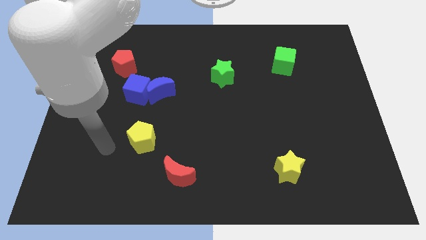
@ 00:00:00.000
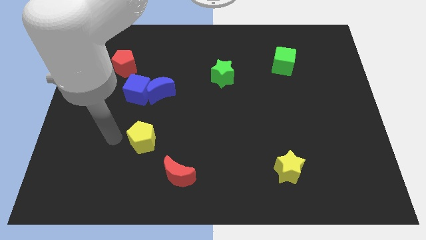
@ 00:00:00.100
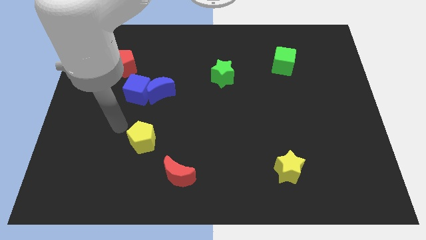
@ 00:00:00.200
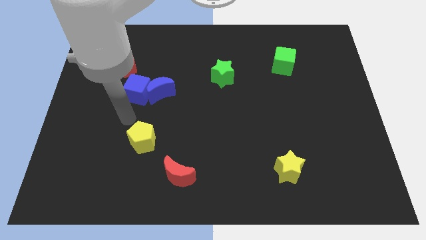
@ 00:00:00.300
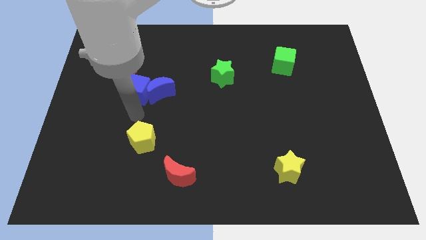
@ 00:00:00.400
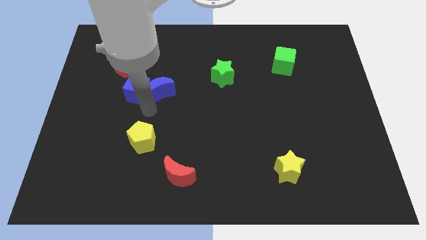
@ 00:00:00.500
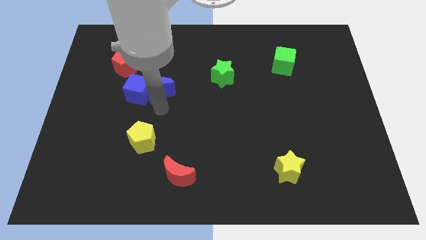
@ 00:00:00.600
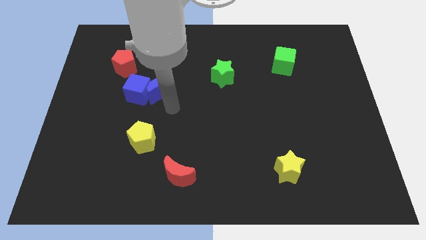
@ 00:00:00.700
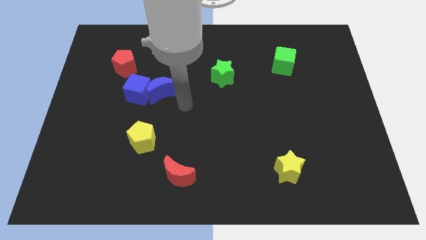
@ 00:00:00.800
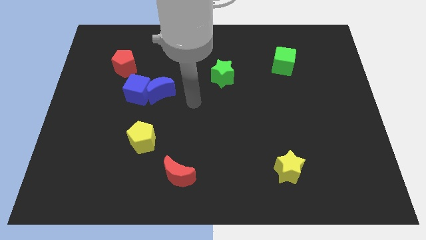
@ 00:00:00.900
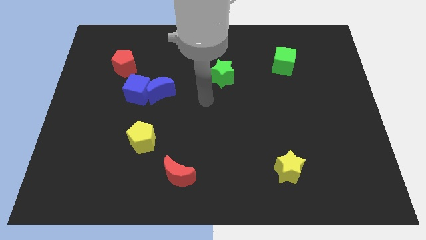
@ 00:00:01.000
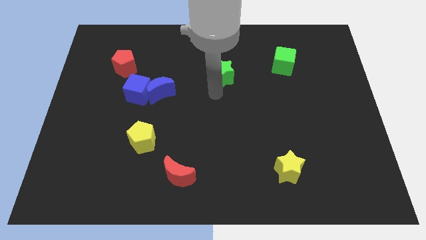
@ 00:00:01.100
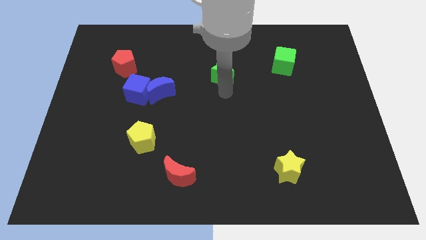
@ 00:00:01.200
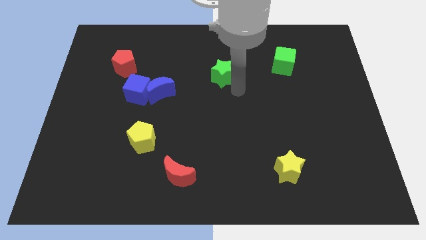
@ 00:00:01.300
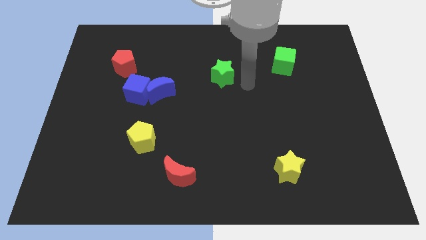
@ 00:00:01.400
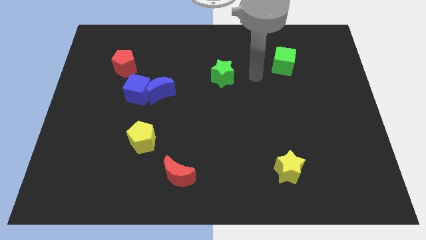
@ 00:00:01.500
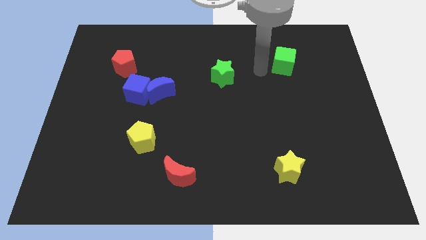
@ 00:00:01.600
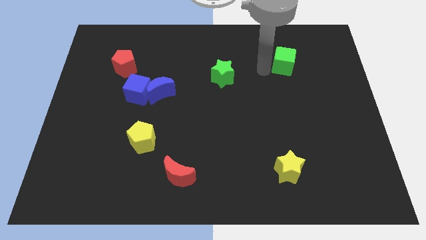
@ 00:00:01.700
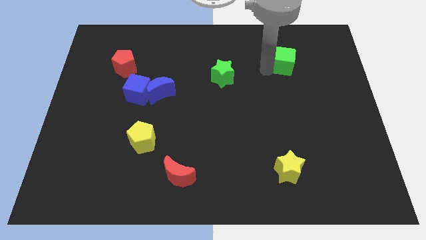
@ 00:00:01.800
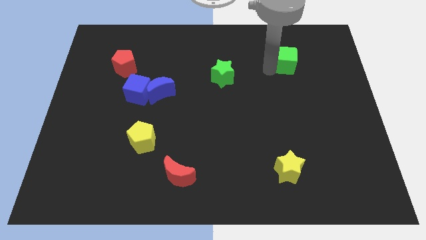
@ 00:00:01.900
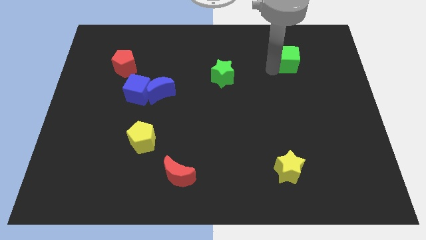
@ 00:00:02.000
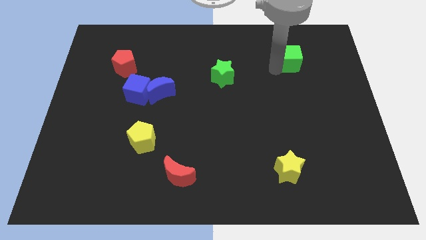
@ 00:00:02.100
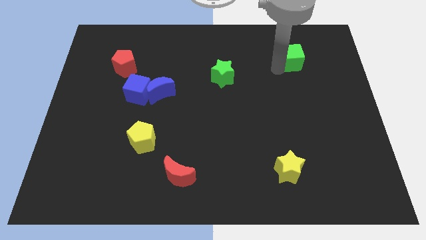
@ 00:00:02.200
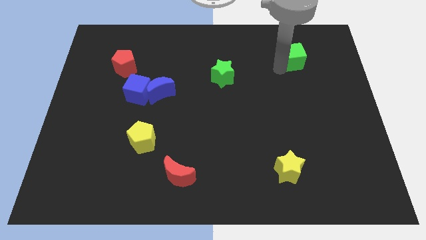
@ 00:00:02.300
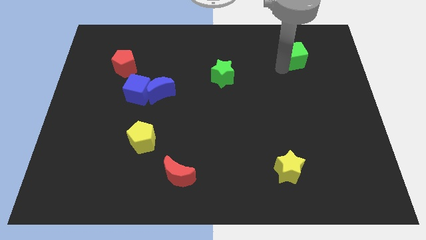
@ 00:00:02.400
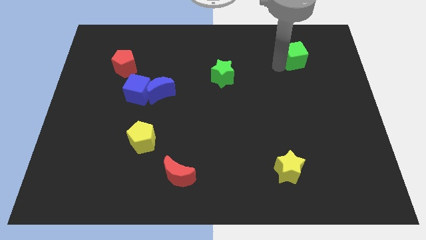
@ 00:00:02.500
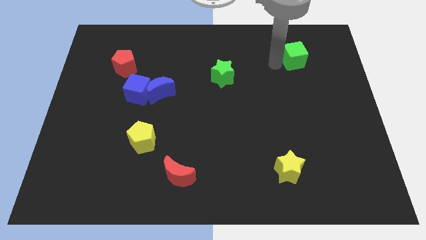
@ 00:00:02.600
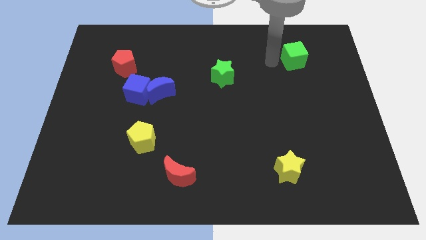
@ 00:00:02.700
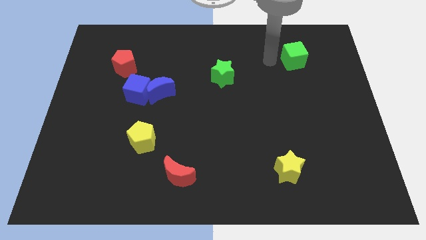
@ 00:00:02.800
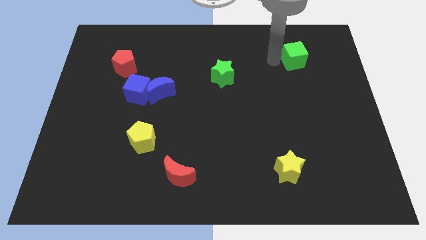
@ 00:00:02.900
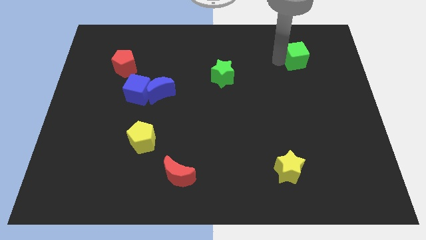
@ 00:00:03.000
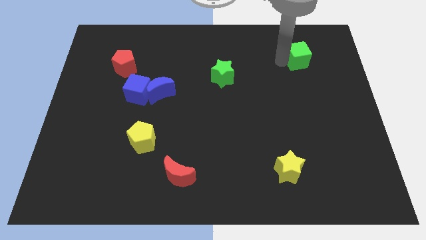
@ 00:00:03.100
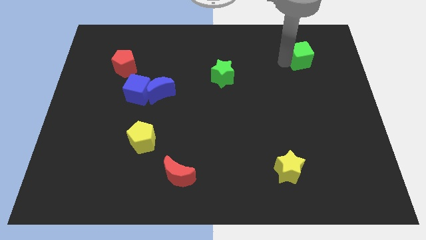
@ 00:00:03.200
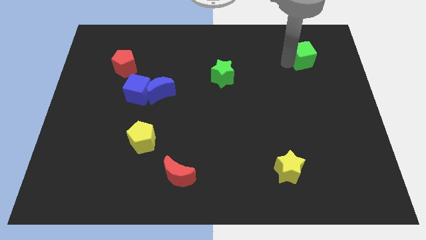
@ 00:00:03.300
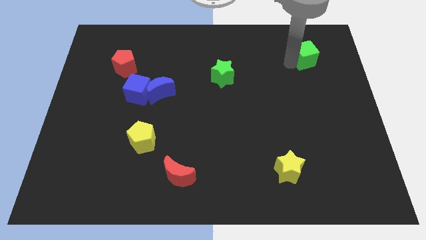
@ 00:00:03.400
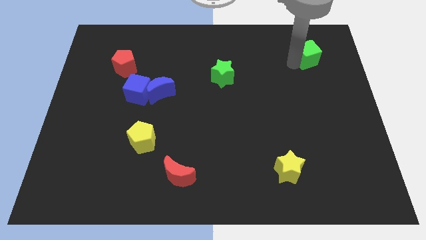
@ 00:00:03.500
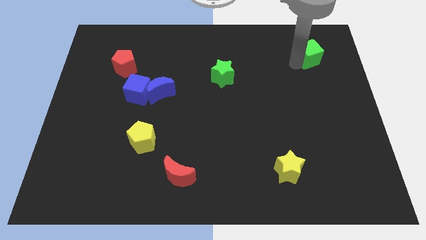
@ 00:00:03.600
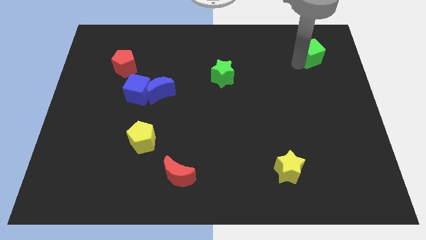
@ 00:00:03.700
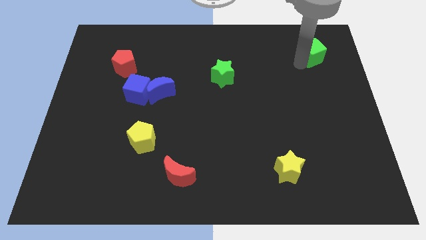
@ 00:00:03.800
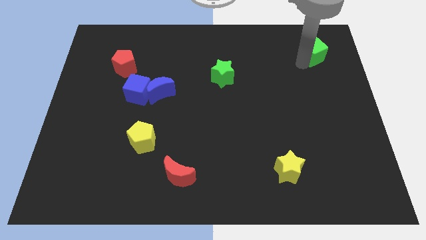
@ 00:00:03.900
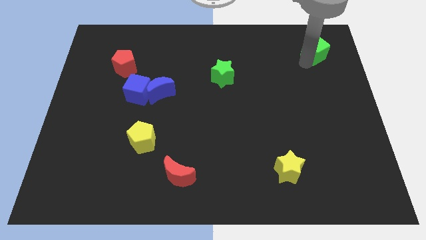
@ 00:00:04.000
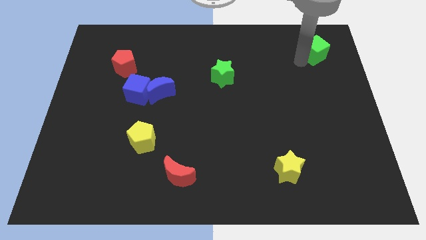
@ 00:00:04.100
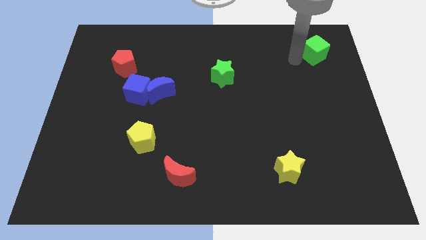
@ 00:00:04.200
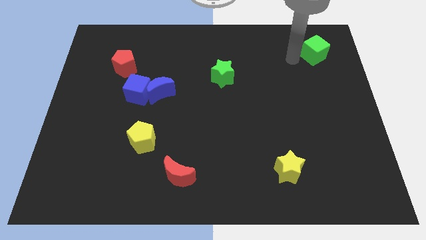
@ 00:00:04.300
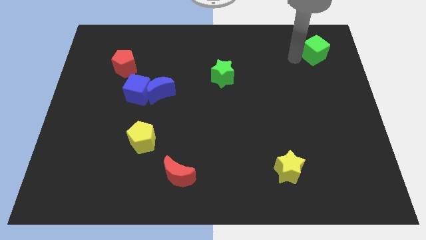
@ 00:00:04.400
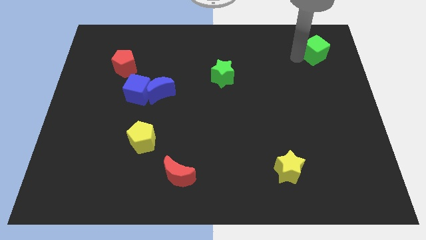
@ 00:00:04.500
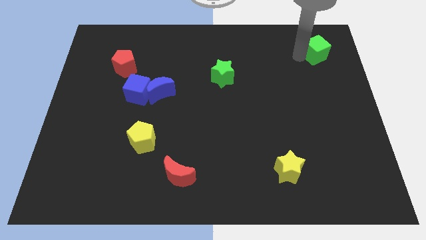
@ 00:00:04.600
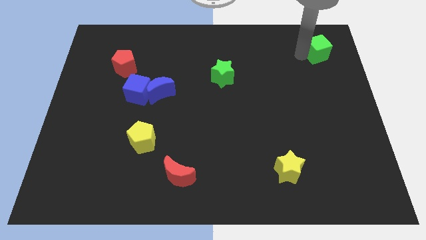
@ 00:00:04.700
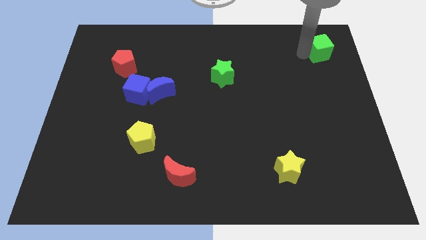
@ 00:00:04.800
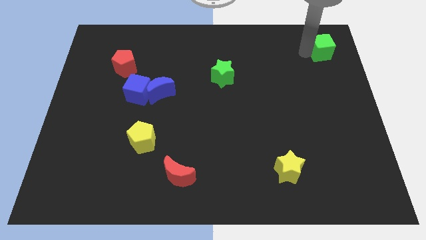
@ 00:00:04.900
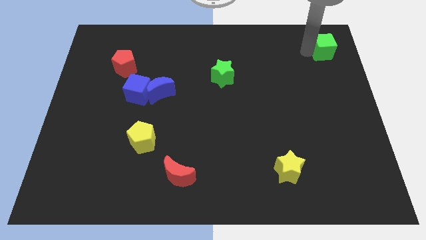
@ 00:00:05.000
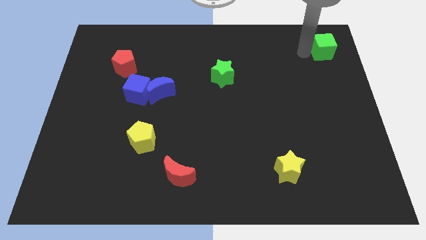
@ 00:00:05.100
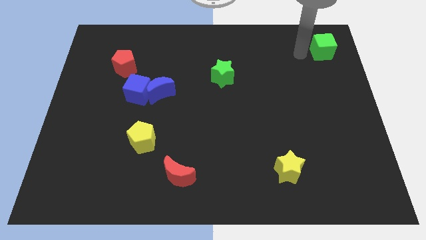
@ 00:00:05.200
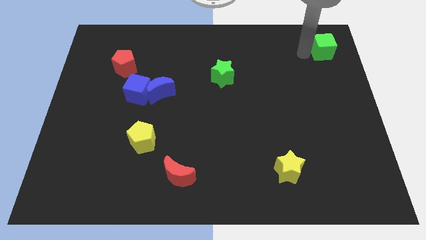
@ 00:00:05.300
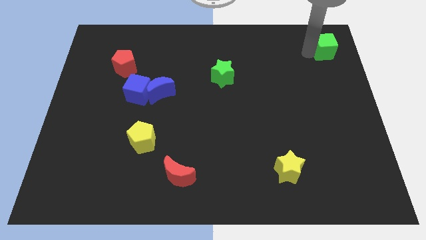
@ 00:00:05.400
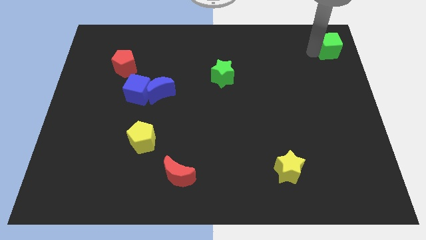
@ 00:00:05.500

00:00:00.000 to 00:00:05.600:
slide the green cube to the top right corner

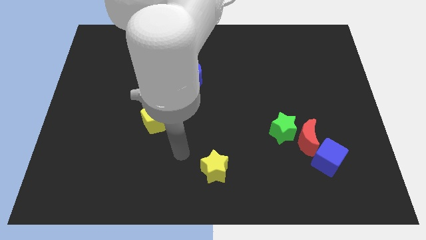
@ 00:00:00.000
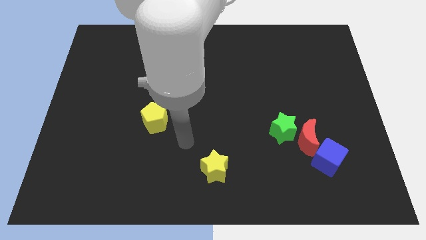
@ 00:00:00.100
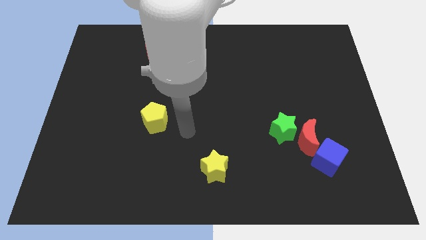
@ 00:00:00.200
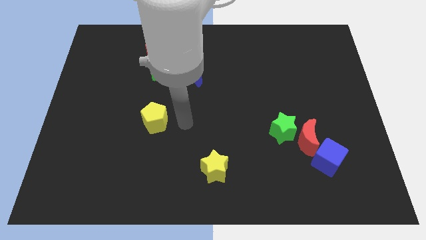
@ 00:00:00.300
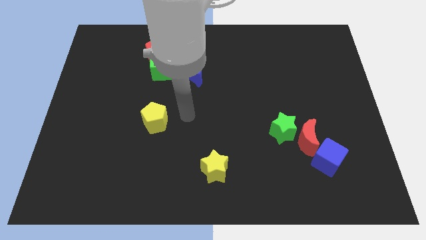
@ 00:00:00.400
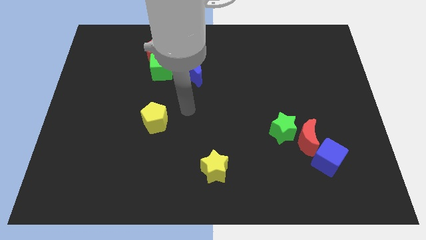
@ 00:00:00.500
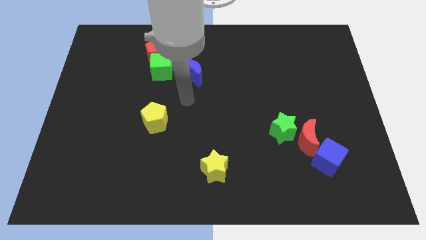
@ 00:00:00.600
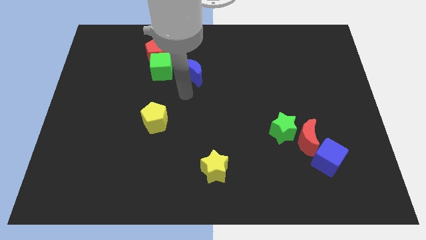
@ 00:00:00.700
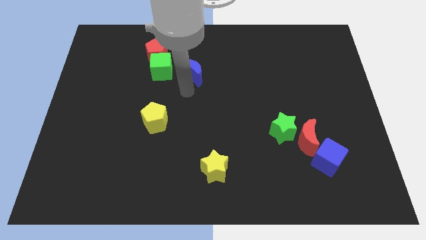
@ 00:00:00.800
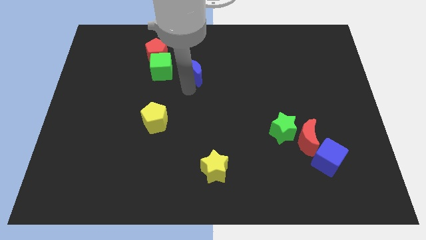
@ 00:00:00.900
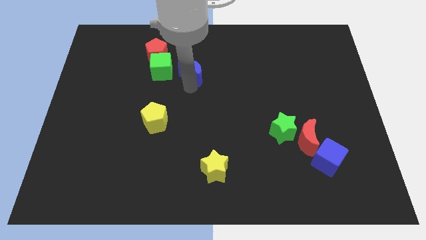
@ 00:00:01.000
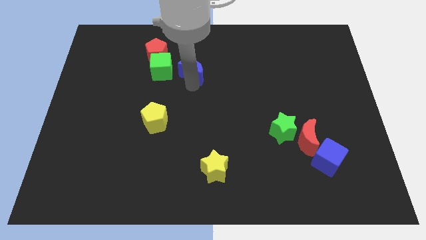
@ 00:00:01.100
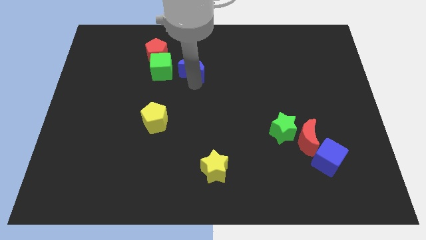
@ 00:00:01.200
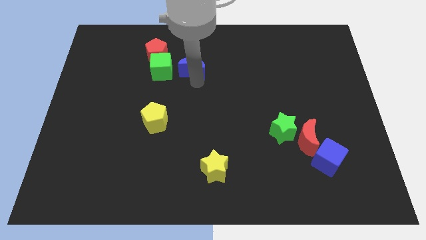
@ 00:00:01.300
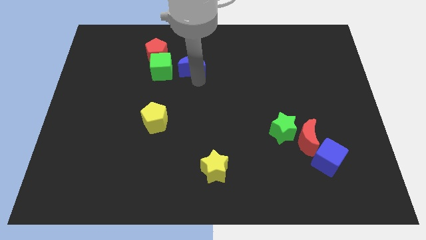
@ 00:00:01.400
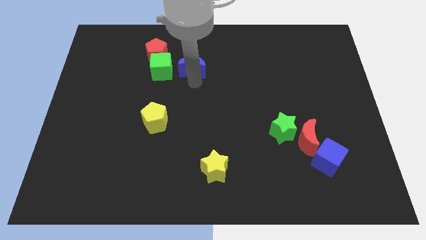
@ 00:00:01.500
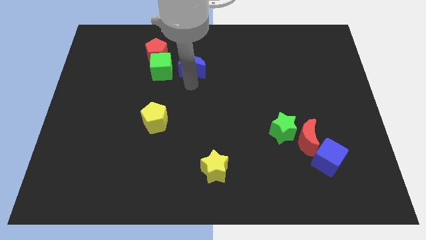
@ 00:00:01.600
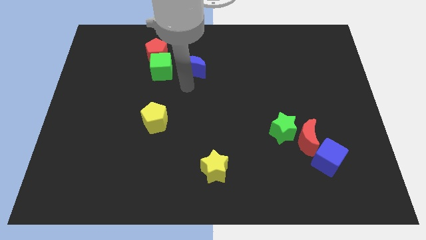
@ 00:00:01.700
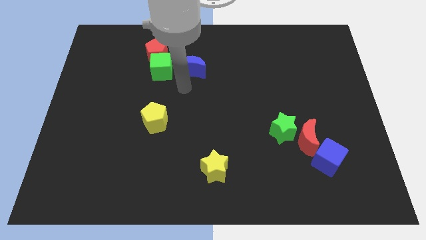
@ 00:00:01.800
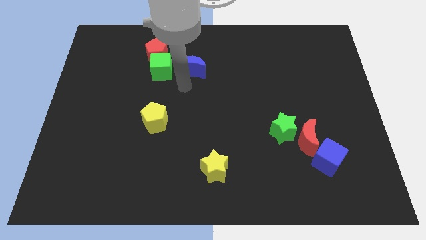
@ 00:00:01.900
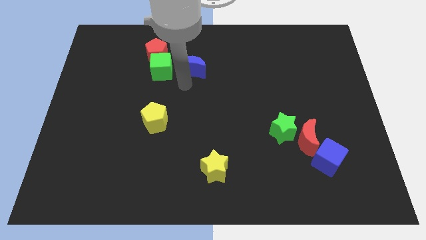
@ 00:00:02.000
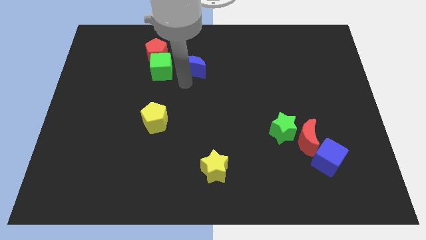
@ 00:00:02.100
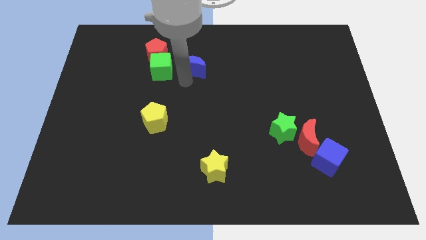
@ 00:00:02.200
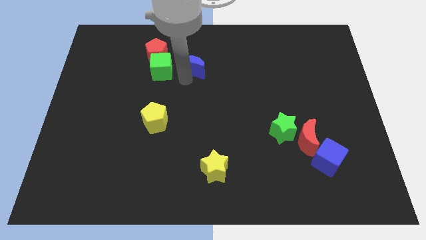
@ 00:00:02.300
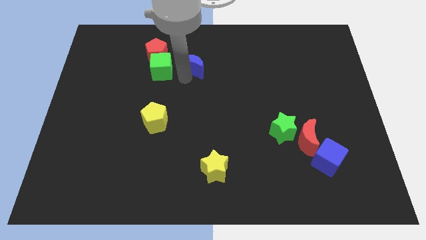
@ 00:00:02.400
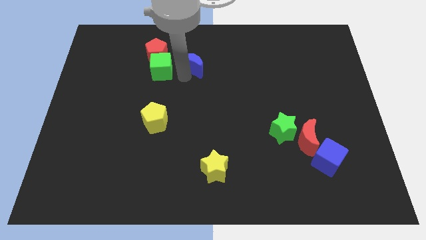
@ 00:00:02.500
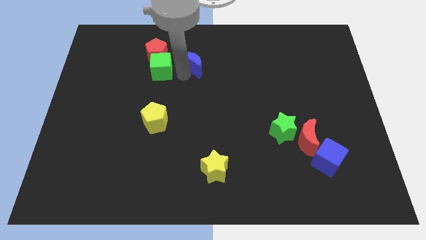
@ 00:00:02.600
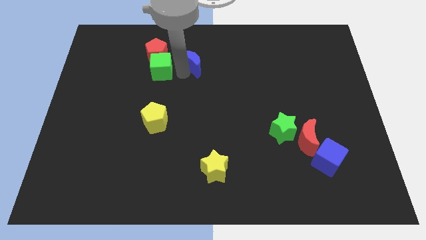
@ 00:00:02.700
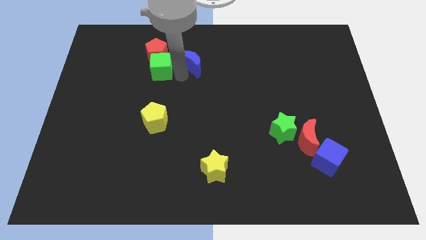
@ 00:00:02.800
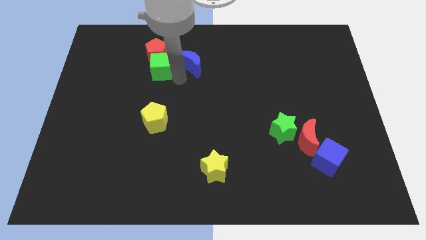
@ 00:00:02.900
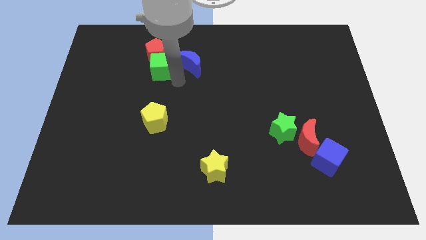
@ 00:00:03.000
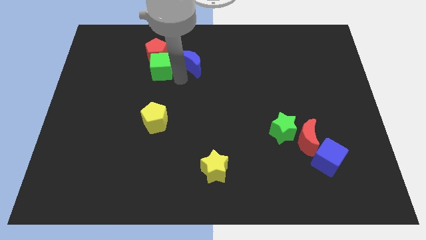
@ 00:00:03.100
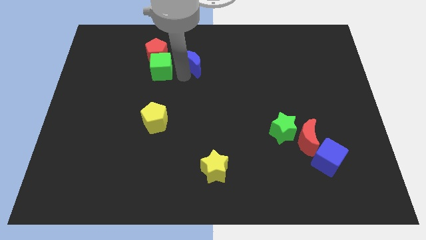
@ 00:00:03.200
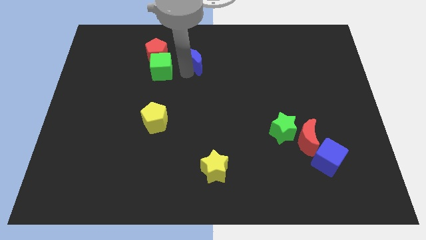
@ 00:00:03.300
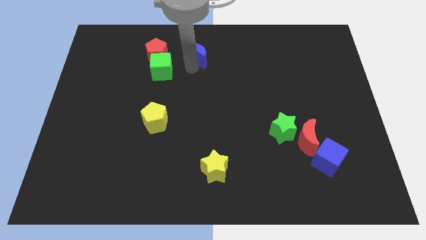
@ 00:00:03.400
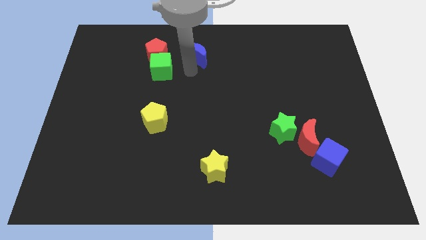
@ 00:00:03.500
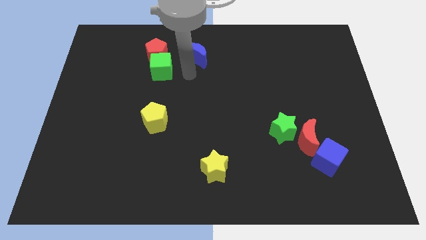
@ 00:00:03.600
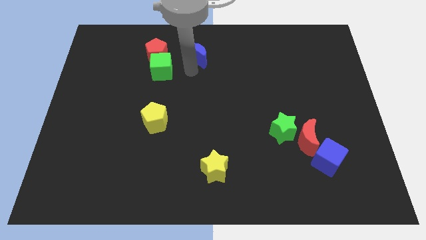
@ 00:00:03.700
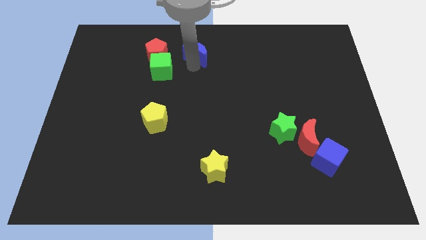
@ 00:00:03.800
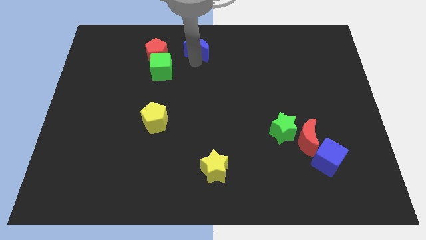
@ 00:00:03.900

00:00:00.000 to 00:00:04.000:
push the blue moon to the top
